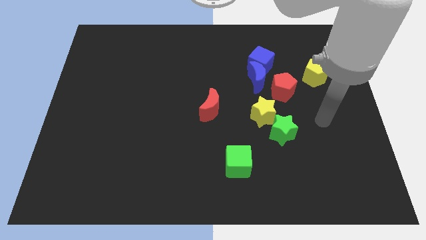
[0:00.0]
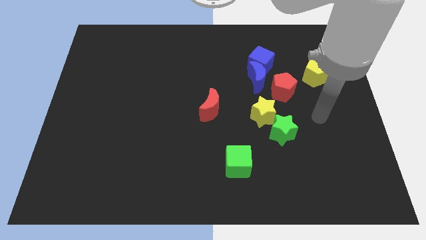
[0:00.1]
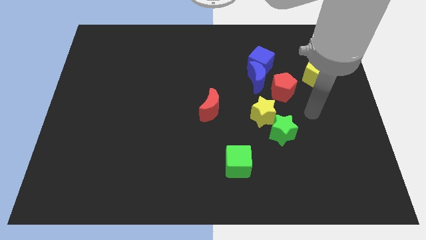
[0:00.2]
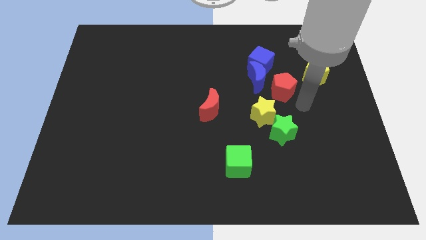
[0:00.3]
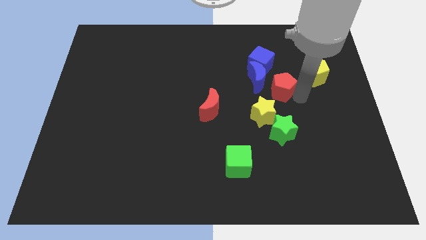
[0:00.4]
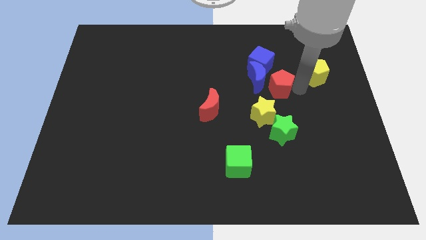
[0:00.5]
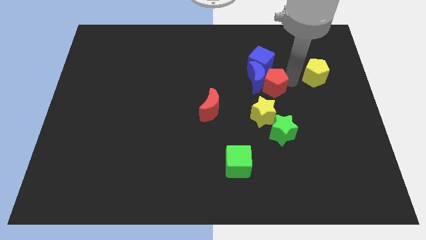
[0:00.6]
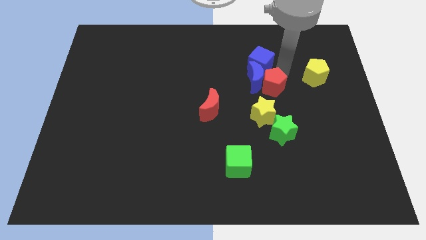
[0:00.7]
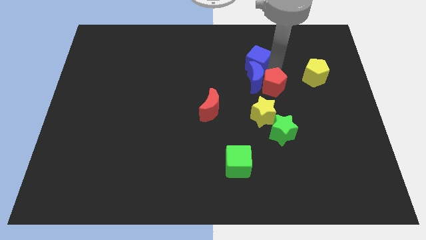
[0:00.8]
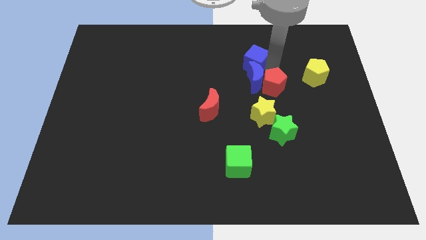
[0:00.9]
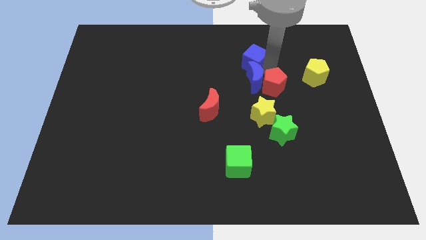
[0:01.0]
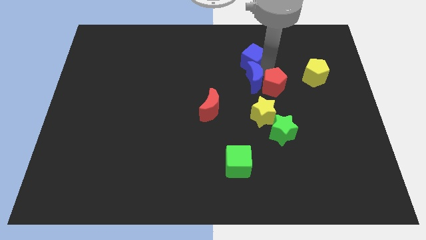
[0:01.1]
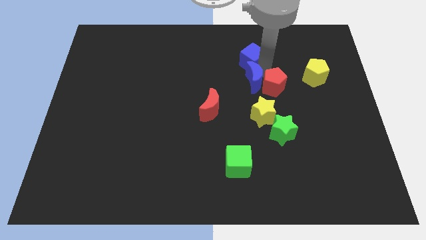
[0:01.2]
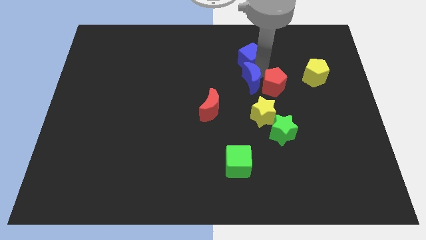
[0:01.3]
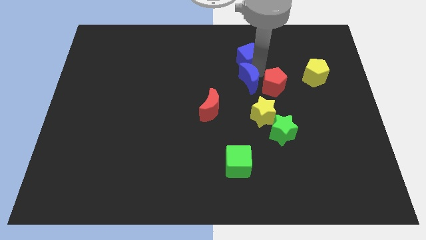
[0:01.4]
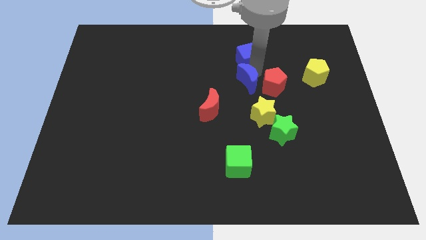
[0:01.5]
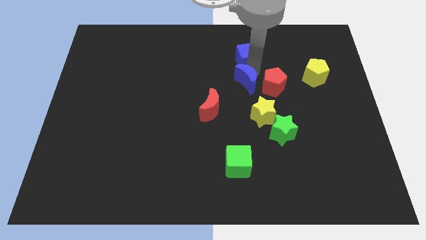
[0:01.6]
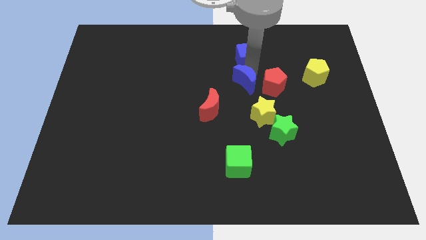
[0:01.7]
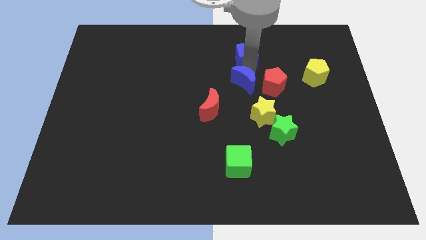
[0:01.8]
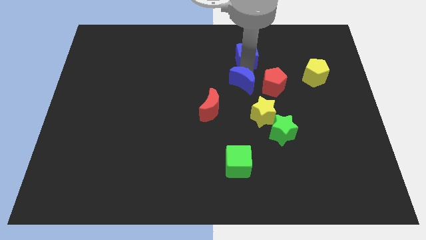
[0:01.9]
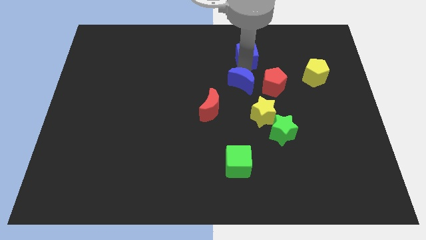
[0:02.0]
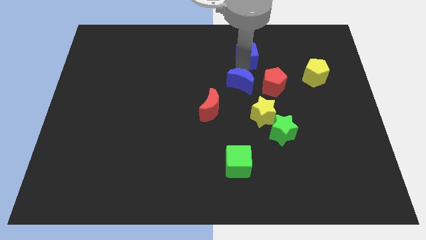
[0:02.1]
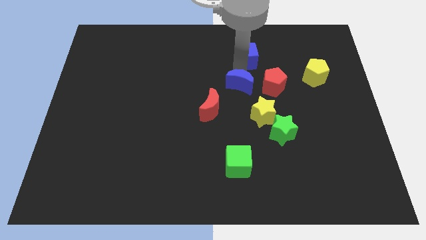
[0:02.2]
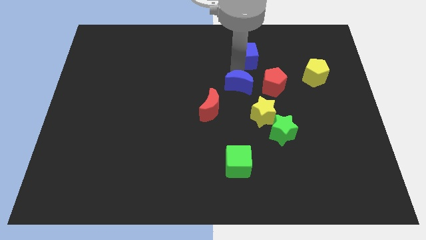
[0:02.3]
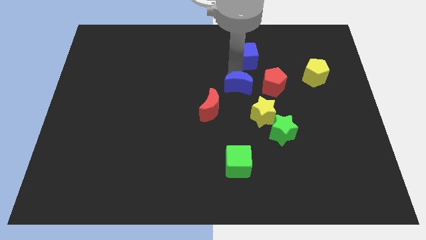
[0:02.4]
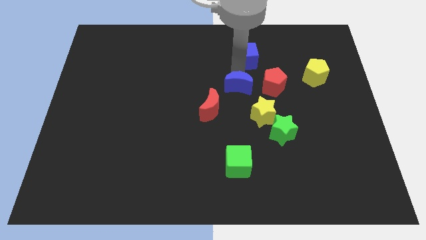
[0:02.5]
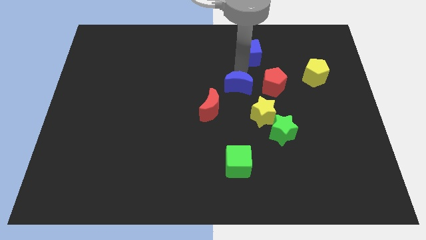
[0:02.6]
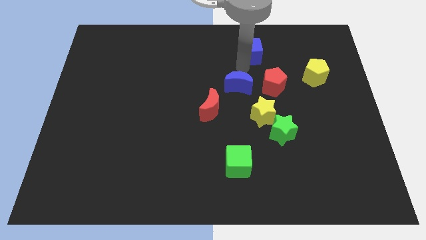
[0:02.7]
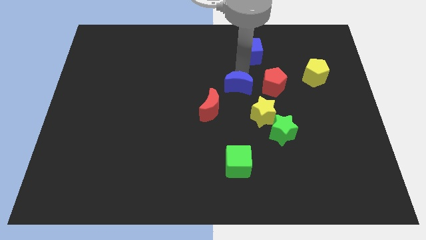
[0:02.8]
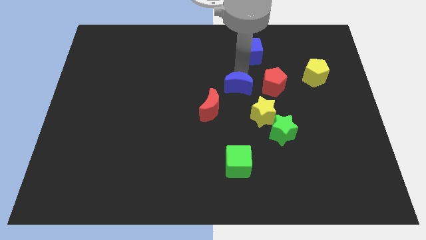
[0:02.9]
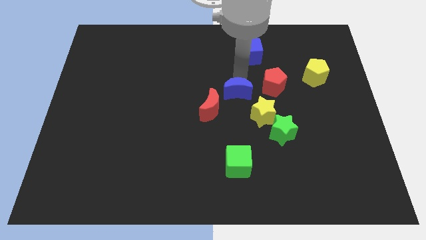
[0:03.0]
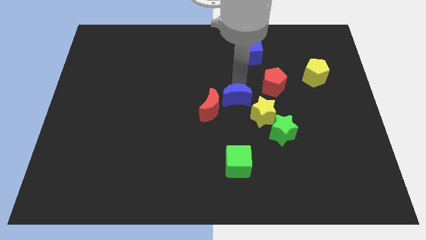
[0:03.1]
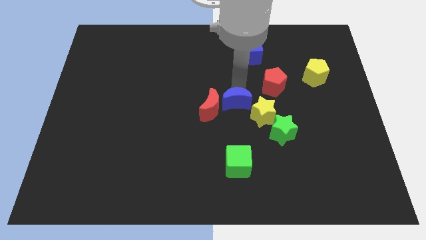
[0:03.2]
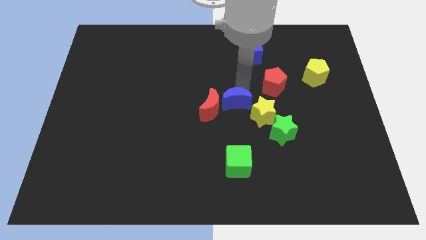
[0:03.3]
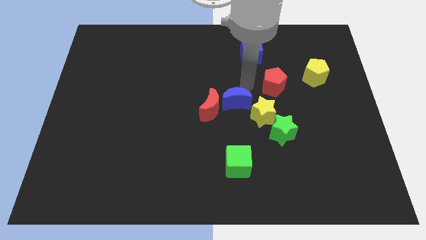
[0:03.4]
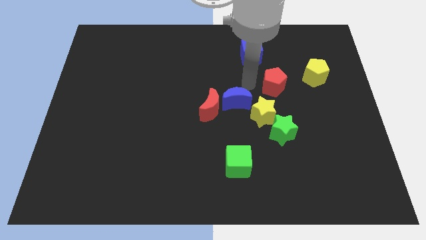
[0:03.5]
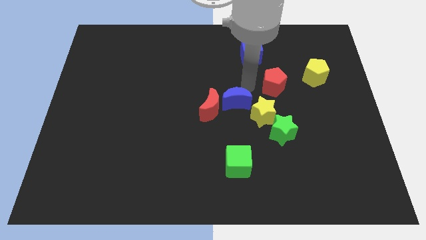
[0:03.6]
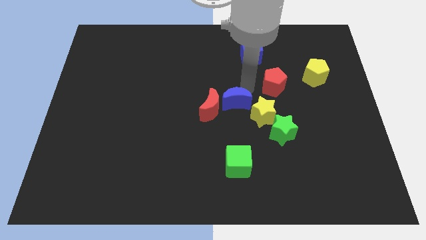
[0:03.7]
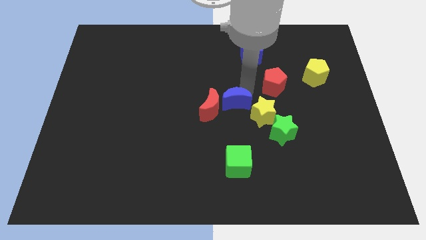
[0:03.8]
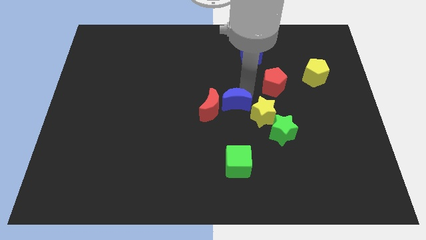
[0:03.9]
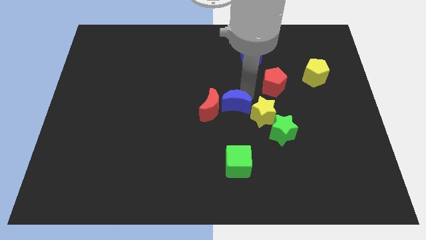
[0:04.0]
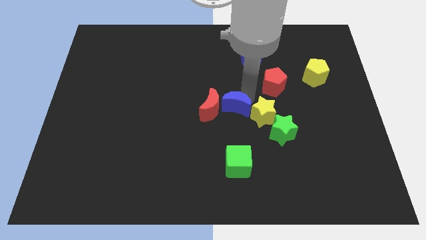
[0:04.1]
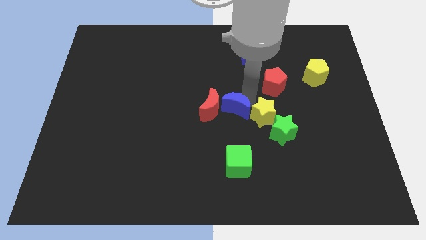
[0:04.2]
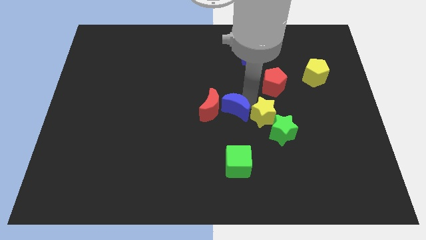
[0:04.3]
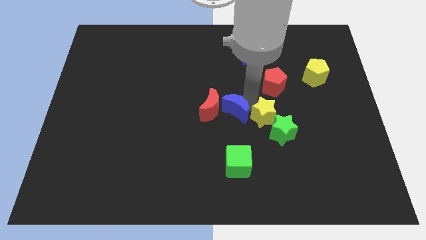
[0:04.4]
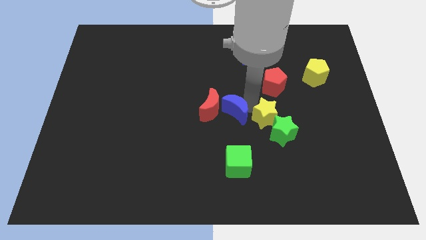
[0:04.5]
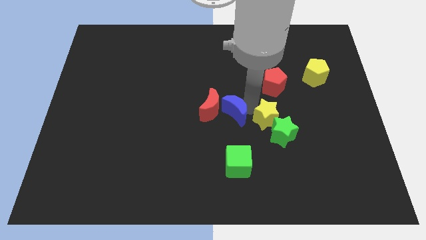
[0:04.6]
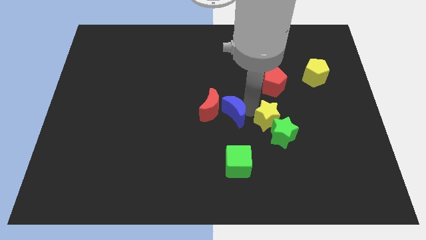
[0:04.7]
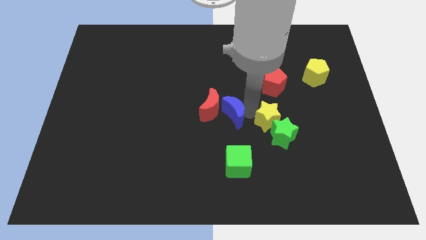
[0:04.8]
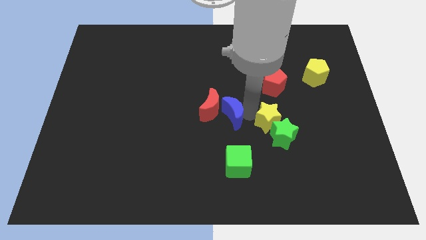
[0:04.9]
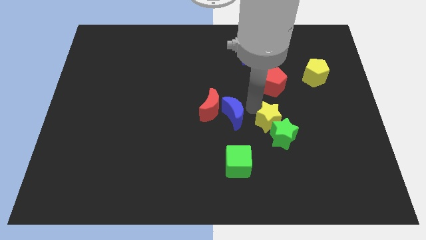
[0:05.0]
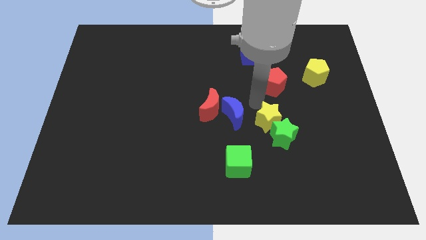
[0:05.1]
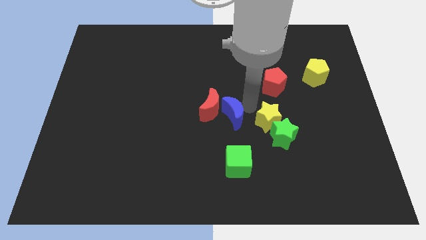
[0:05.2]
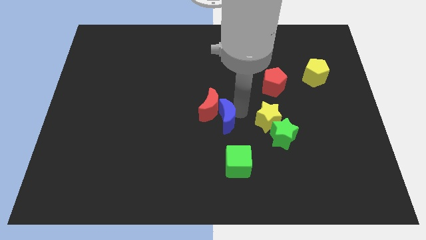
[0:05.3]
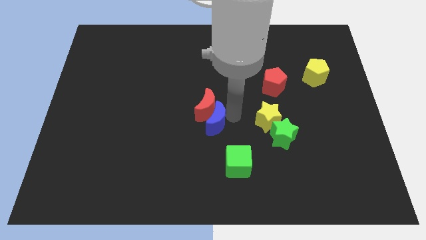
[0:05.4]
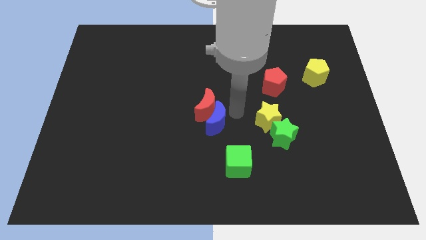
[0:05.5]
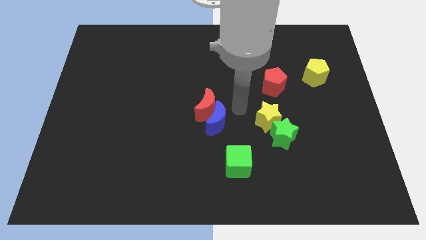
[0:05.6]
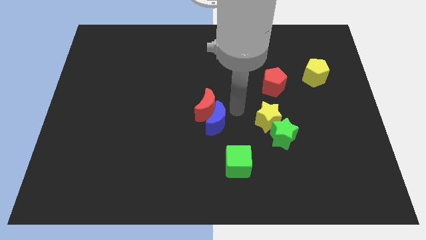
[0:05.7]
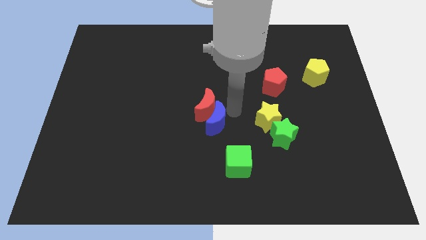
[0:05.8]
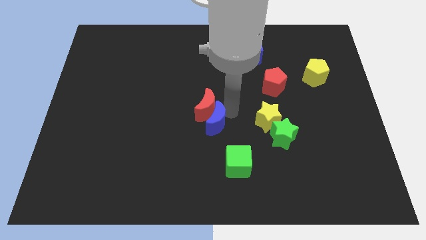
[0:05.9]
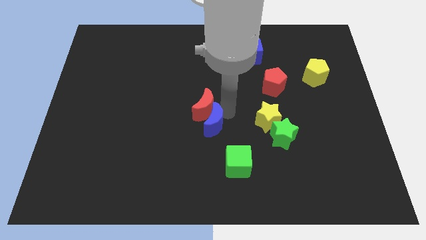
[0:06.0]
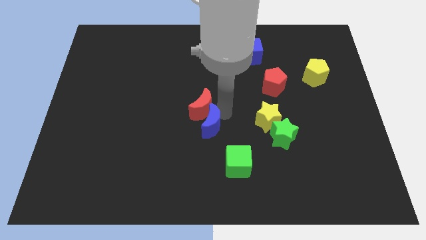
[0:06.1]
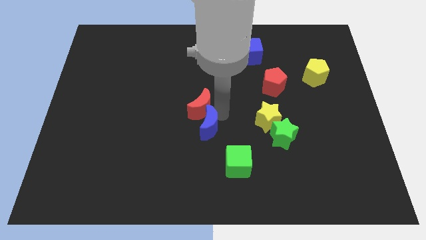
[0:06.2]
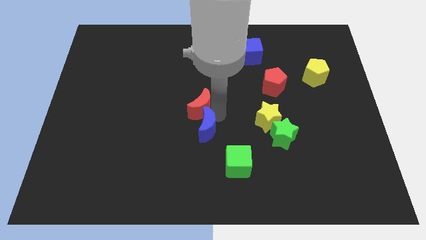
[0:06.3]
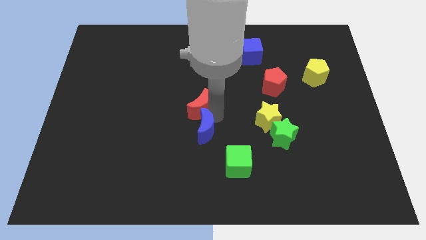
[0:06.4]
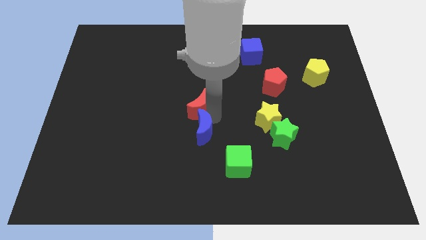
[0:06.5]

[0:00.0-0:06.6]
slide the blue moon down and left diagonally

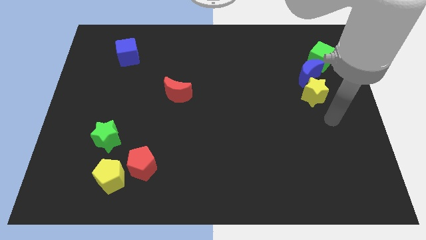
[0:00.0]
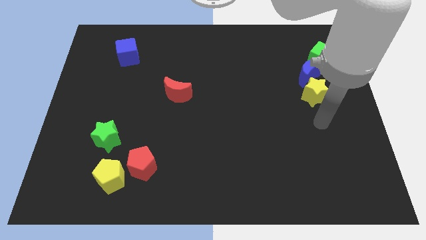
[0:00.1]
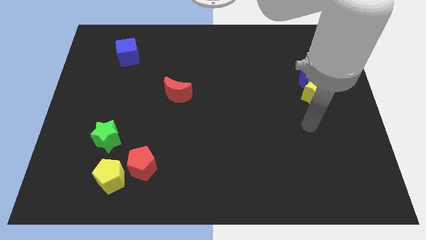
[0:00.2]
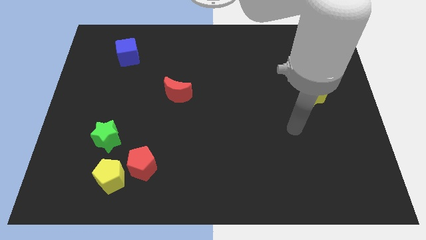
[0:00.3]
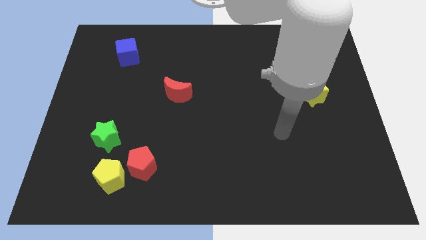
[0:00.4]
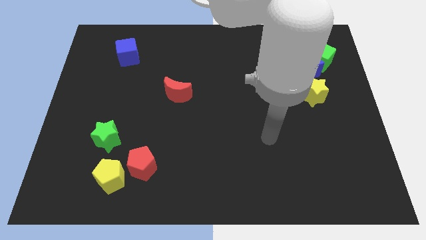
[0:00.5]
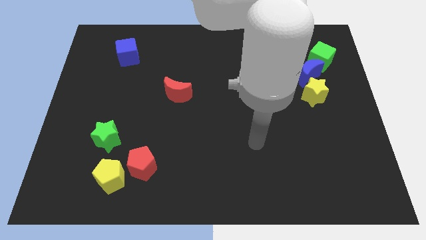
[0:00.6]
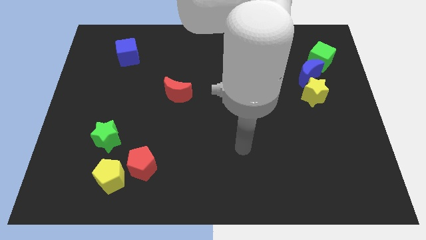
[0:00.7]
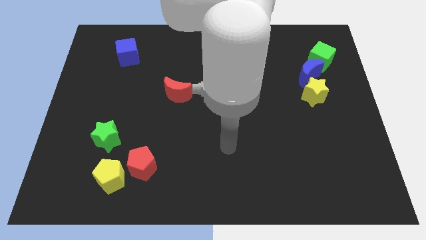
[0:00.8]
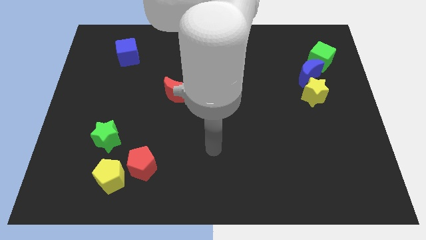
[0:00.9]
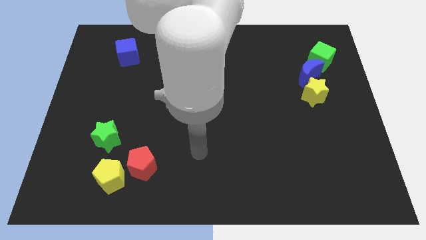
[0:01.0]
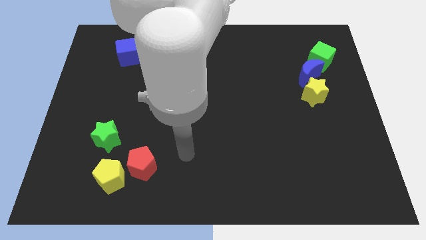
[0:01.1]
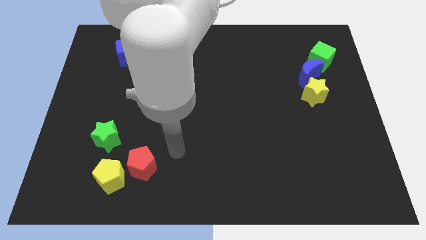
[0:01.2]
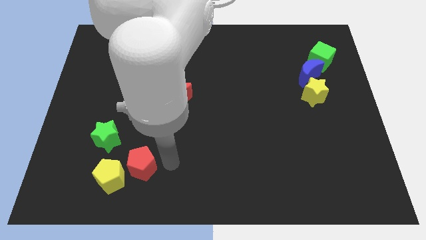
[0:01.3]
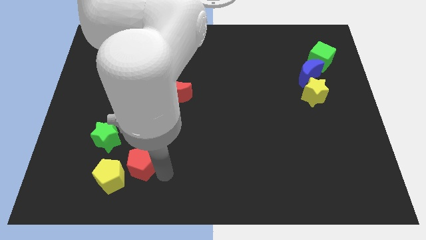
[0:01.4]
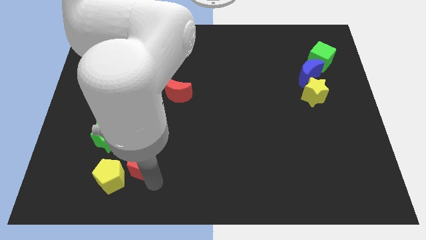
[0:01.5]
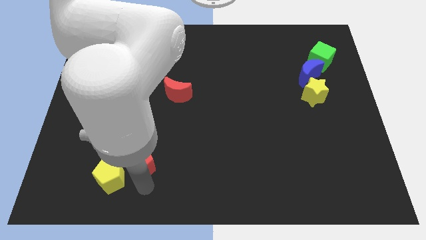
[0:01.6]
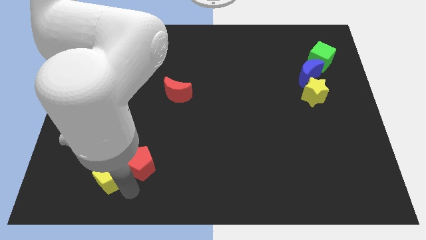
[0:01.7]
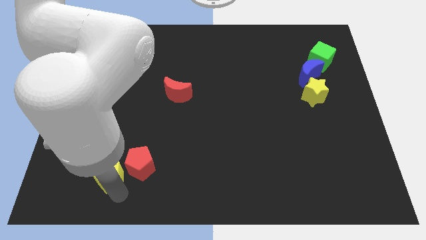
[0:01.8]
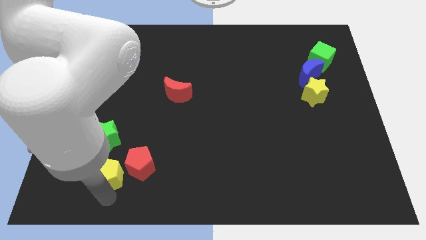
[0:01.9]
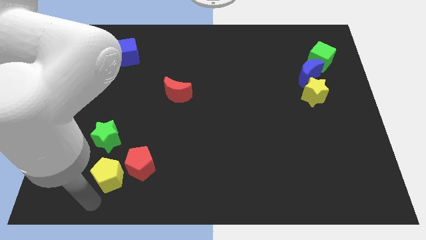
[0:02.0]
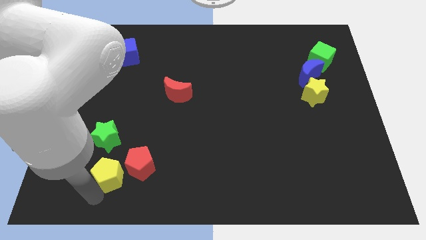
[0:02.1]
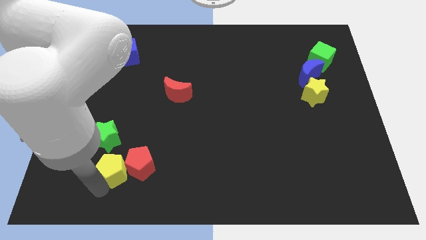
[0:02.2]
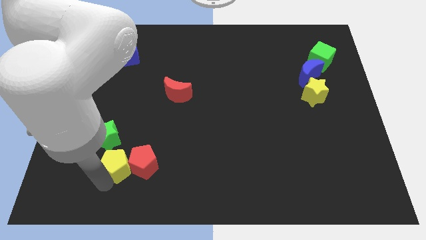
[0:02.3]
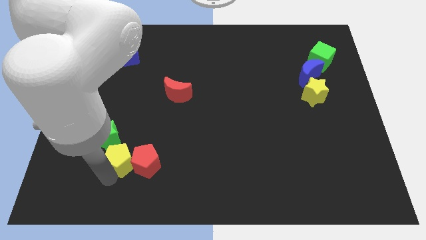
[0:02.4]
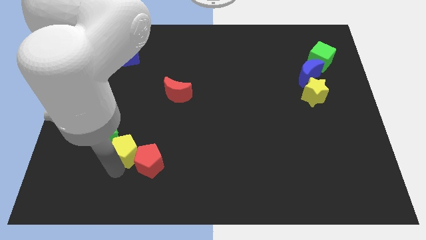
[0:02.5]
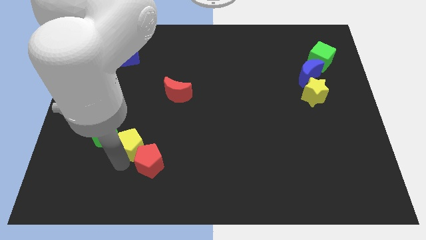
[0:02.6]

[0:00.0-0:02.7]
slide the yellow pentagon a bit upwards
